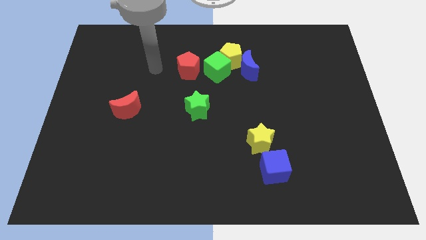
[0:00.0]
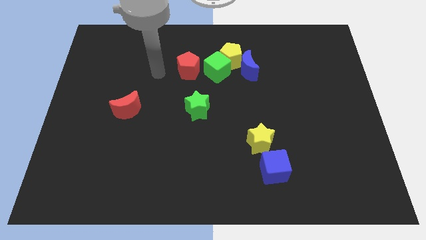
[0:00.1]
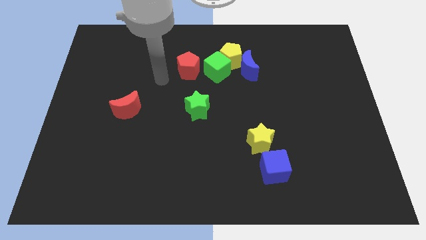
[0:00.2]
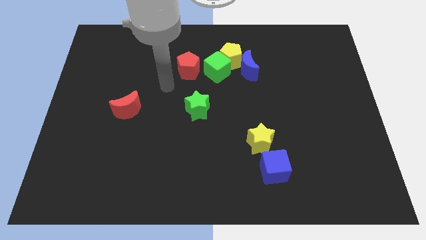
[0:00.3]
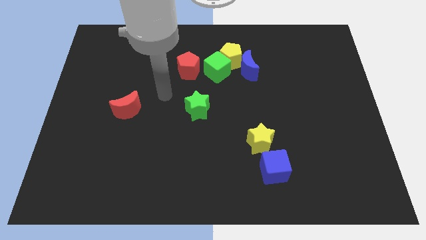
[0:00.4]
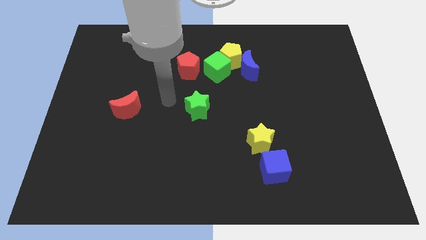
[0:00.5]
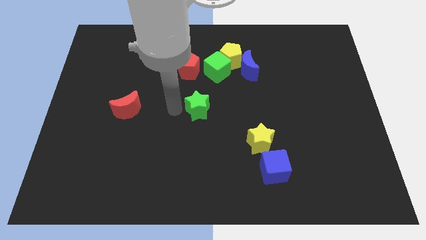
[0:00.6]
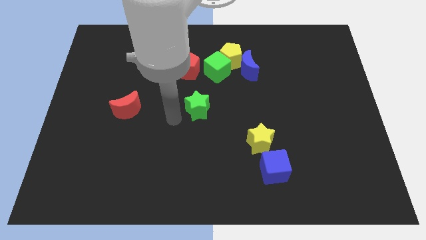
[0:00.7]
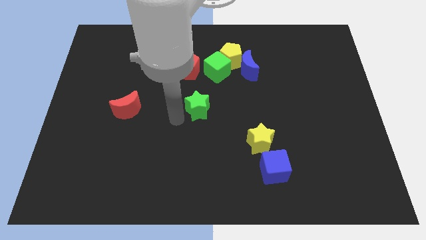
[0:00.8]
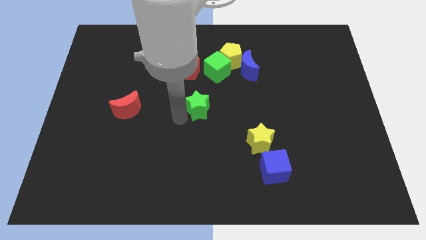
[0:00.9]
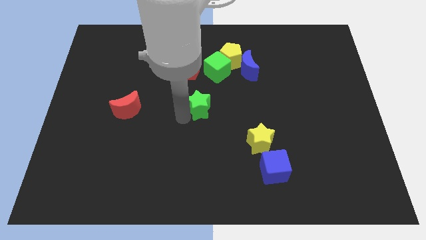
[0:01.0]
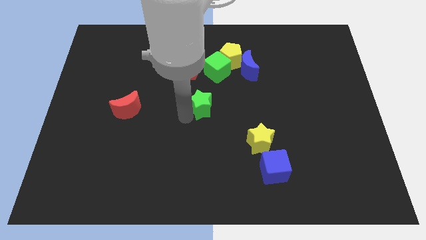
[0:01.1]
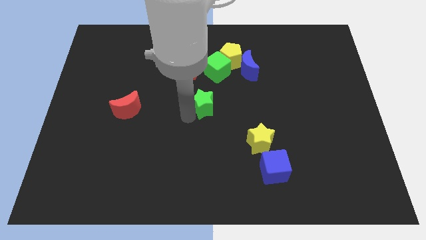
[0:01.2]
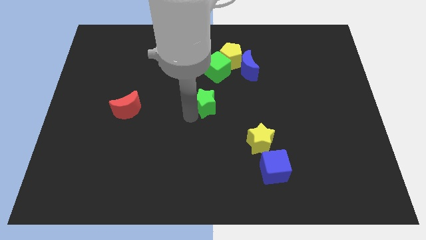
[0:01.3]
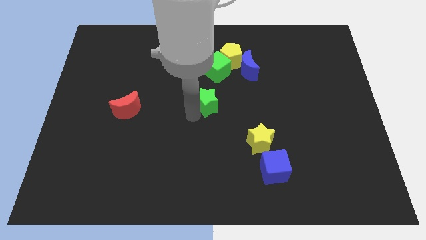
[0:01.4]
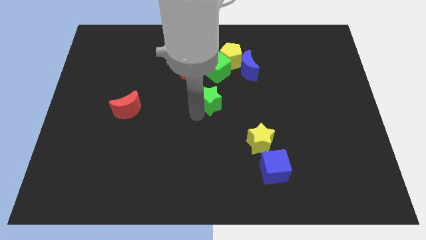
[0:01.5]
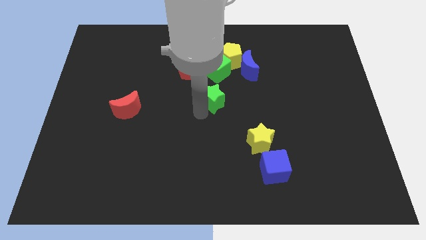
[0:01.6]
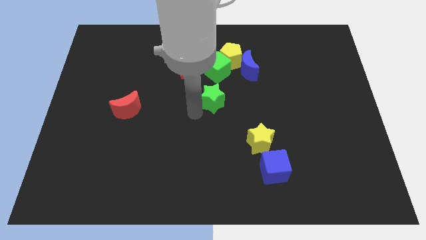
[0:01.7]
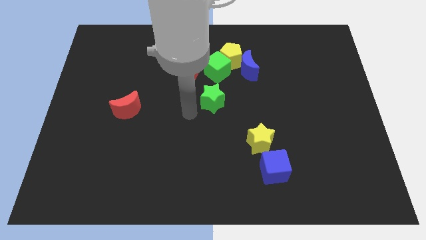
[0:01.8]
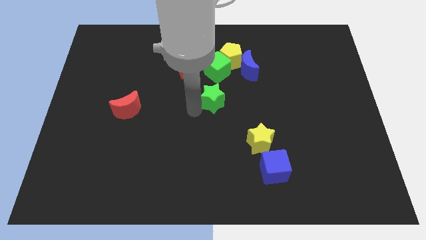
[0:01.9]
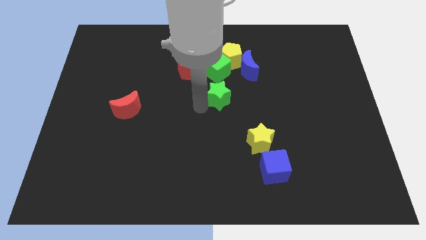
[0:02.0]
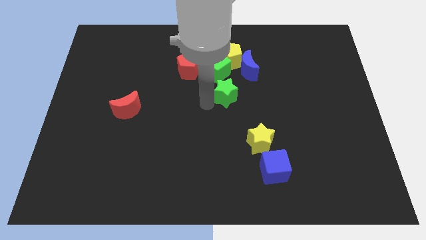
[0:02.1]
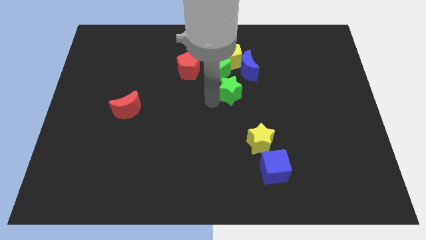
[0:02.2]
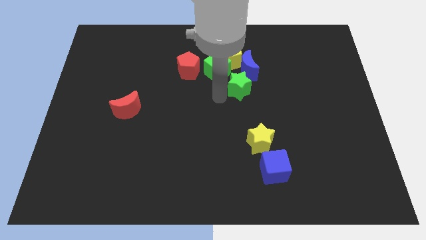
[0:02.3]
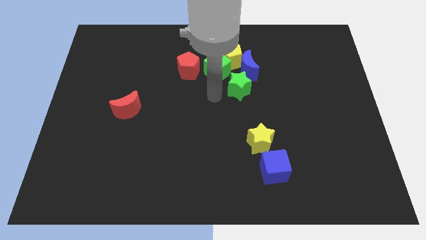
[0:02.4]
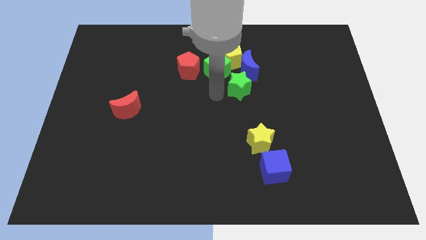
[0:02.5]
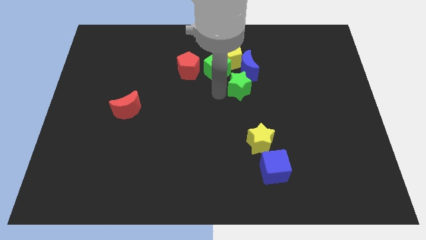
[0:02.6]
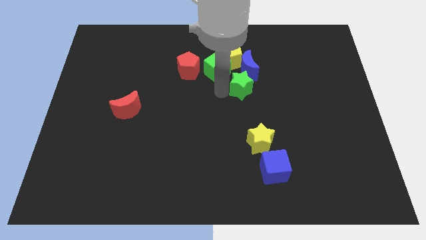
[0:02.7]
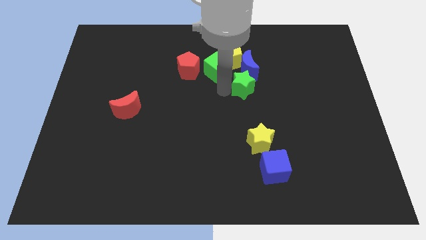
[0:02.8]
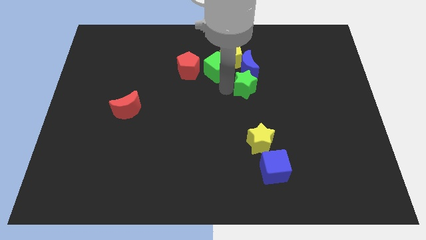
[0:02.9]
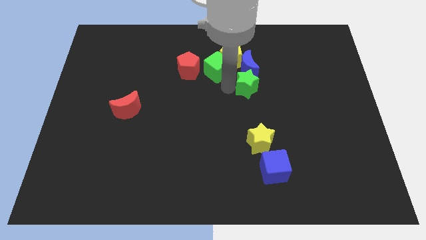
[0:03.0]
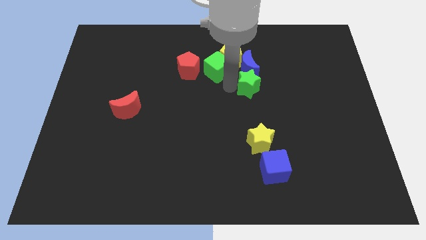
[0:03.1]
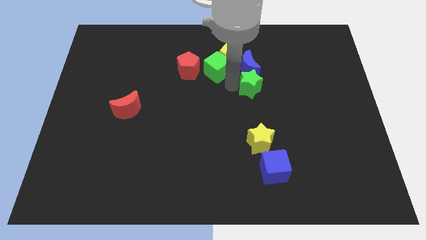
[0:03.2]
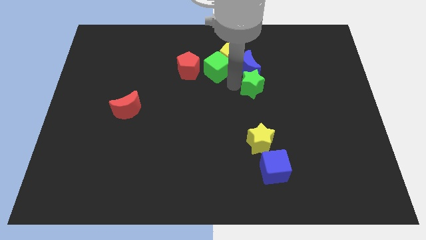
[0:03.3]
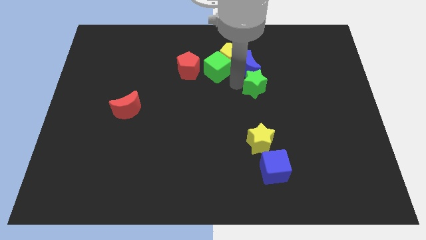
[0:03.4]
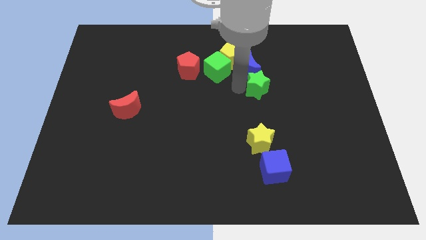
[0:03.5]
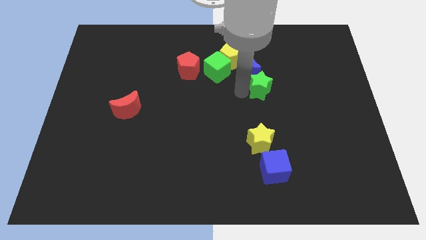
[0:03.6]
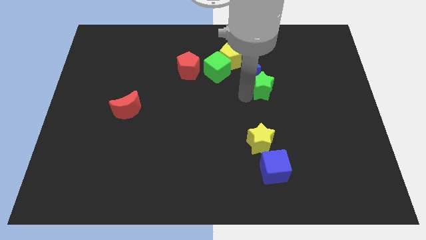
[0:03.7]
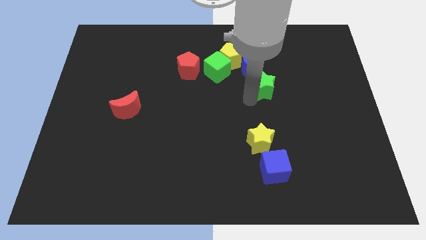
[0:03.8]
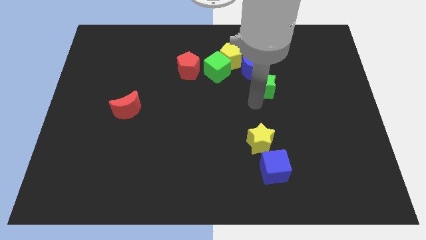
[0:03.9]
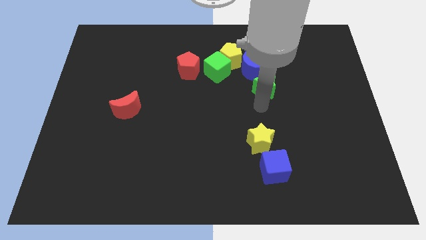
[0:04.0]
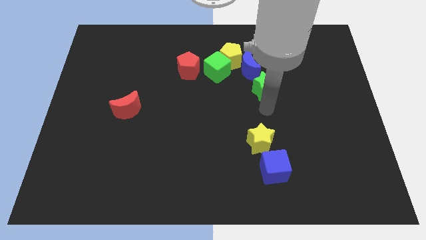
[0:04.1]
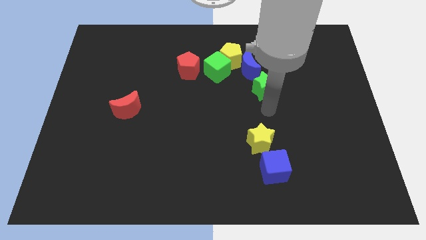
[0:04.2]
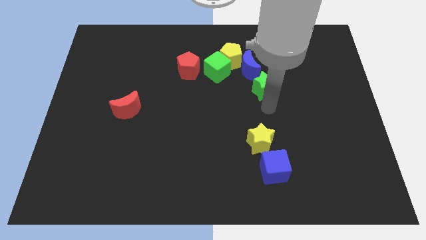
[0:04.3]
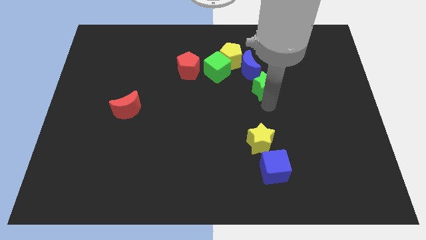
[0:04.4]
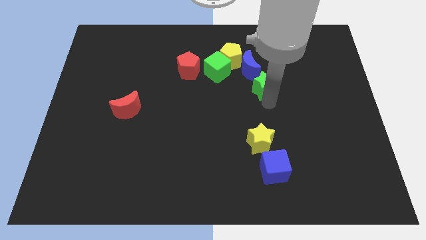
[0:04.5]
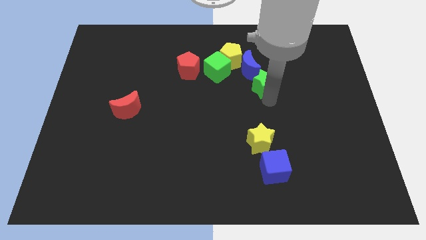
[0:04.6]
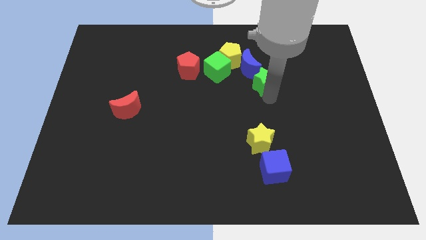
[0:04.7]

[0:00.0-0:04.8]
push the green star to the right of the green cube

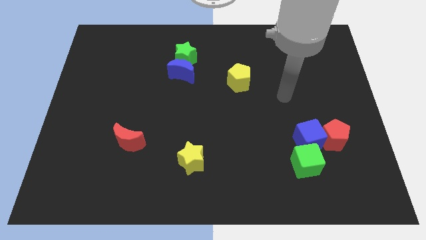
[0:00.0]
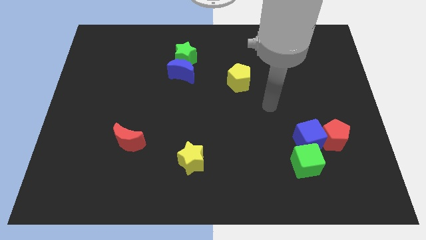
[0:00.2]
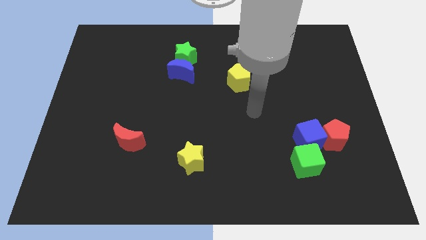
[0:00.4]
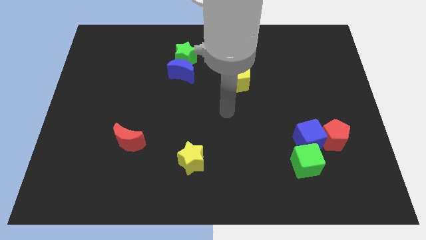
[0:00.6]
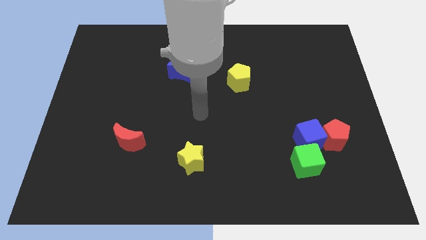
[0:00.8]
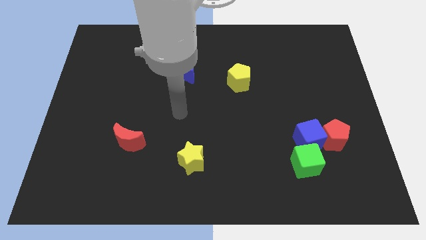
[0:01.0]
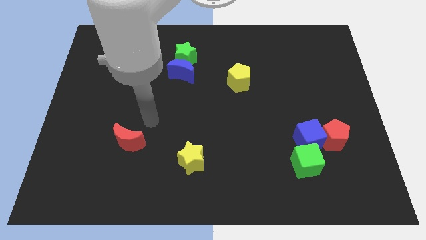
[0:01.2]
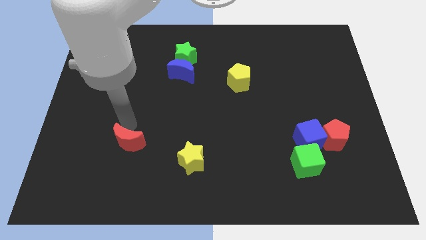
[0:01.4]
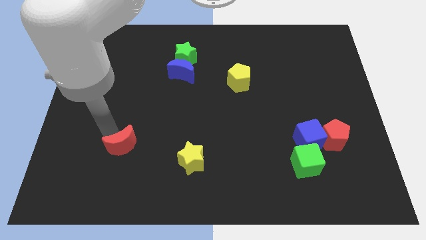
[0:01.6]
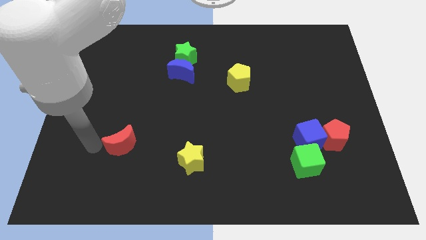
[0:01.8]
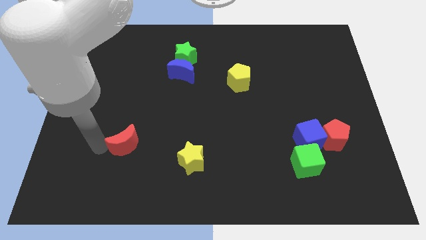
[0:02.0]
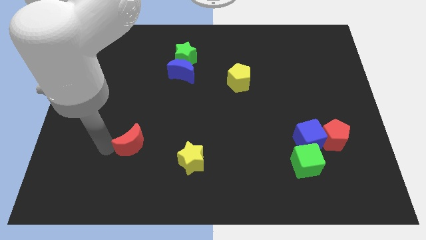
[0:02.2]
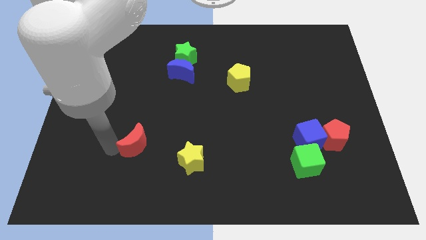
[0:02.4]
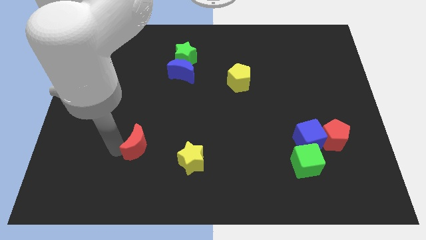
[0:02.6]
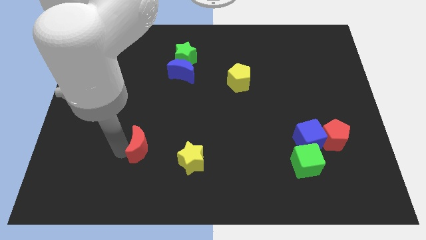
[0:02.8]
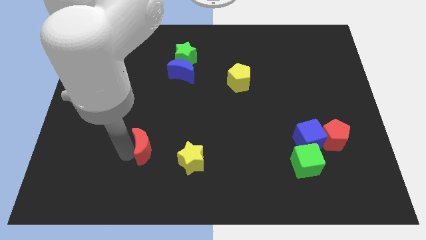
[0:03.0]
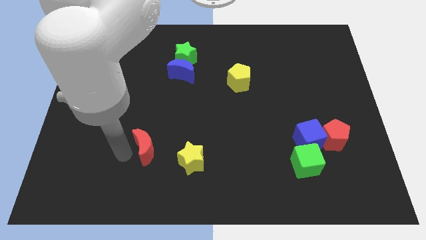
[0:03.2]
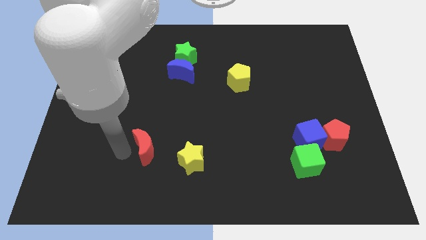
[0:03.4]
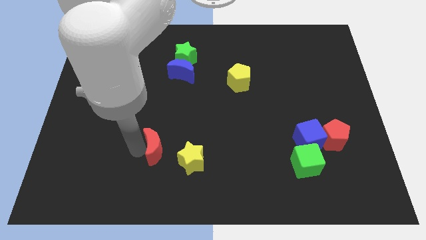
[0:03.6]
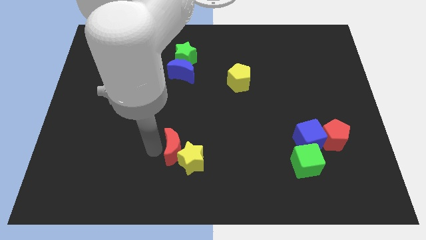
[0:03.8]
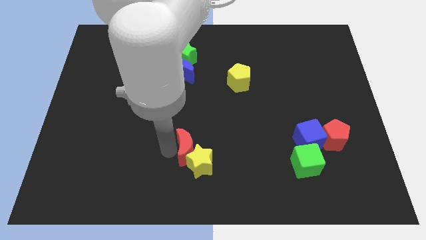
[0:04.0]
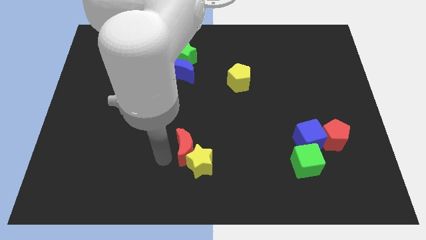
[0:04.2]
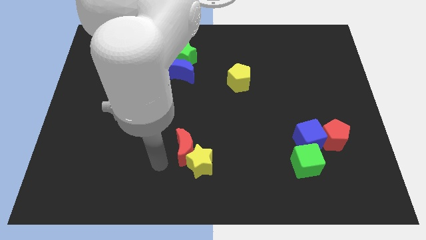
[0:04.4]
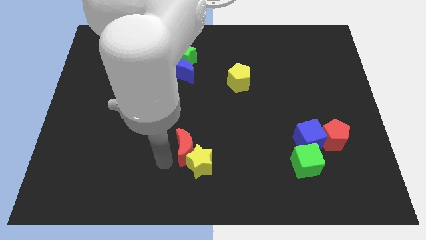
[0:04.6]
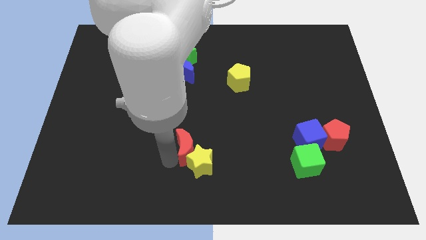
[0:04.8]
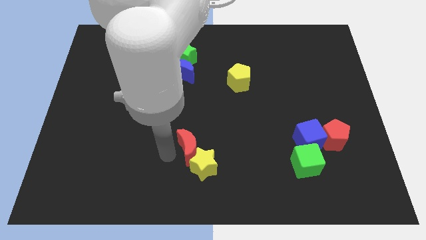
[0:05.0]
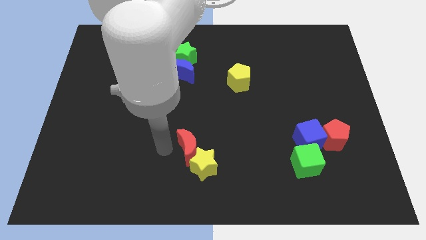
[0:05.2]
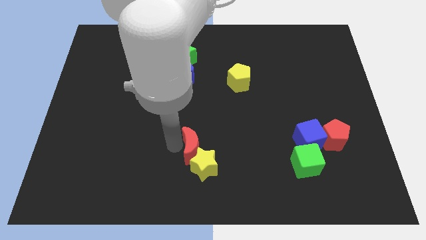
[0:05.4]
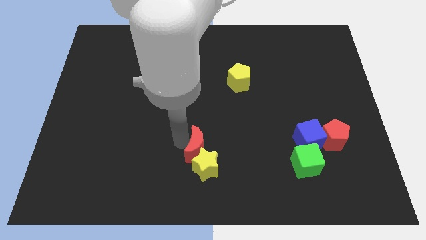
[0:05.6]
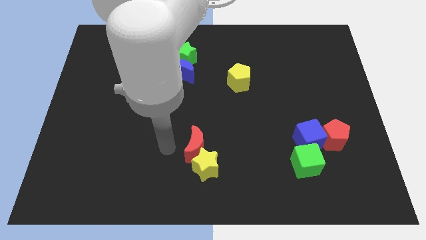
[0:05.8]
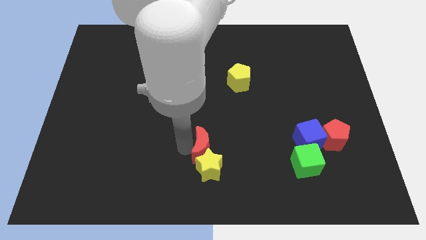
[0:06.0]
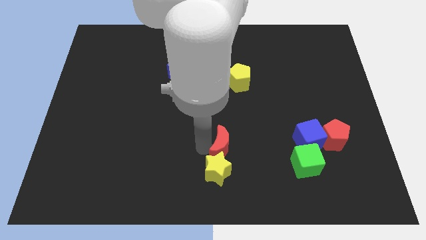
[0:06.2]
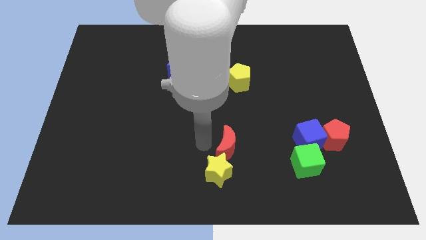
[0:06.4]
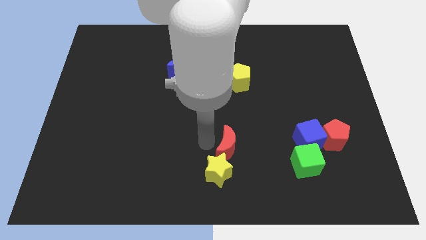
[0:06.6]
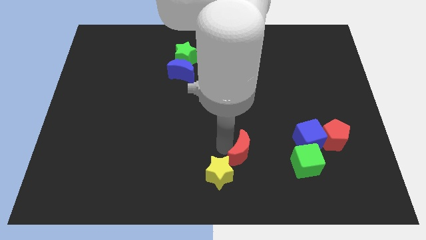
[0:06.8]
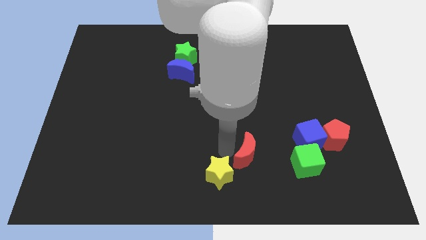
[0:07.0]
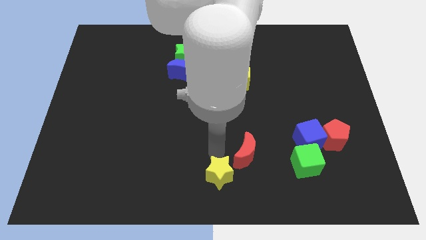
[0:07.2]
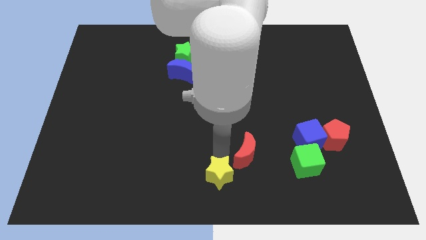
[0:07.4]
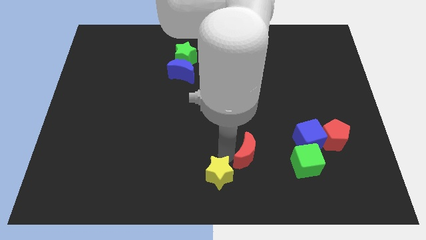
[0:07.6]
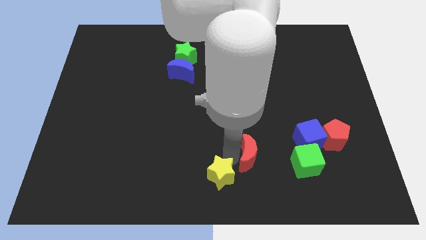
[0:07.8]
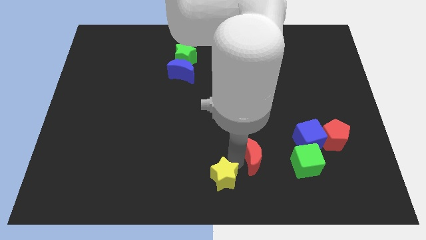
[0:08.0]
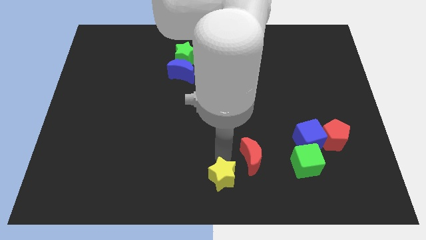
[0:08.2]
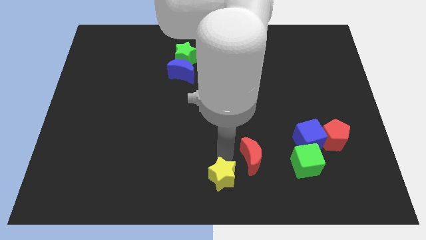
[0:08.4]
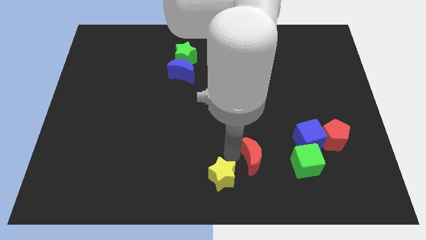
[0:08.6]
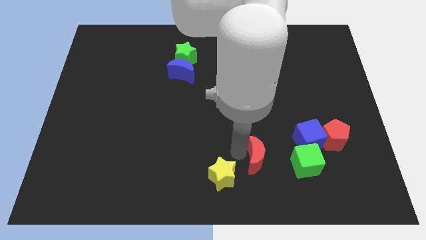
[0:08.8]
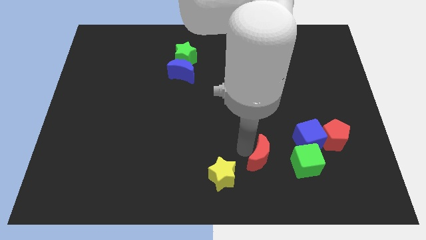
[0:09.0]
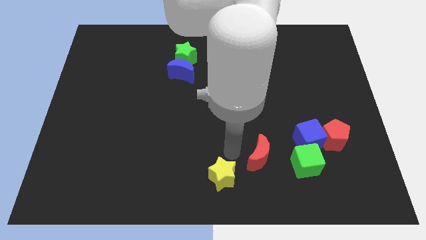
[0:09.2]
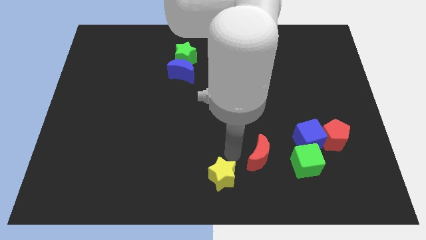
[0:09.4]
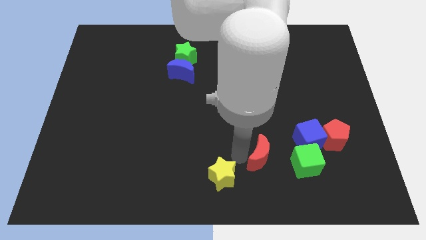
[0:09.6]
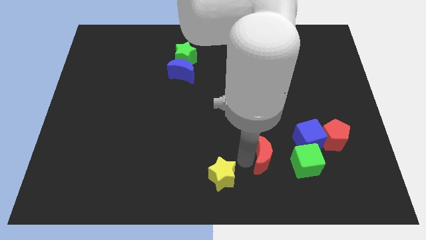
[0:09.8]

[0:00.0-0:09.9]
push the red moon diagonally down and to the left of the blue cube
